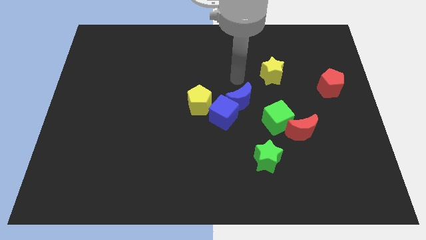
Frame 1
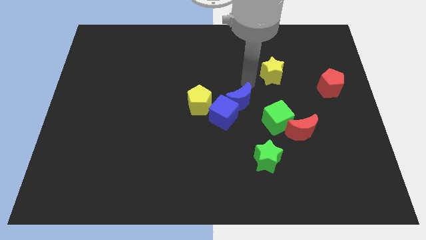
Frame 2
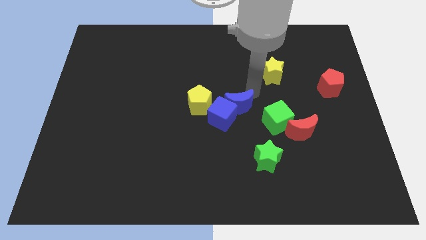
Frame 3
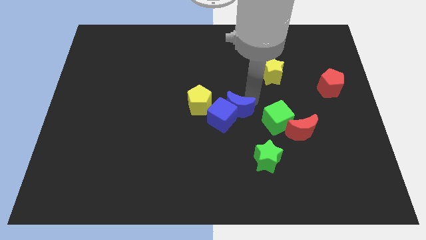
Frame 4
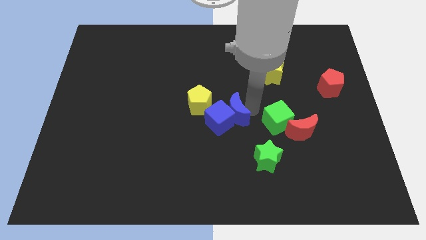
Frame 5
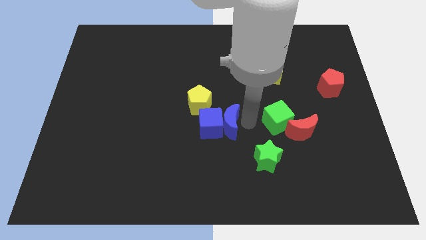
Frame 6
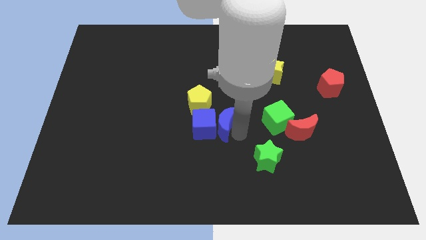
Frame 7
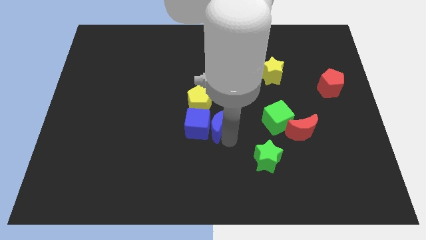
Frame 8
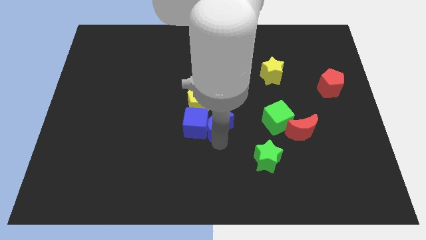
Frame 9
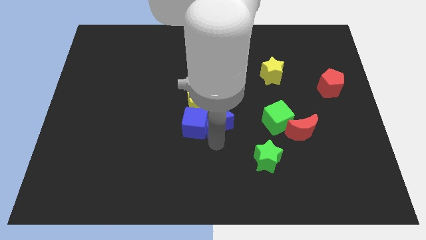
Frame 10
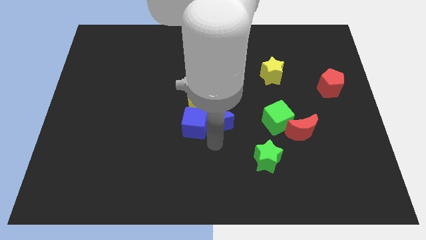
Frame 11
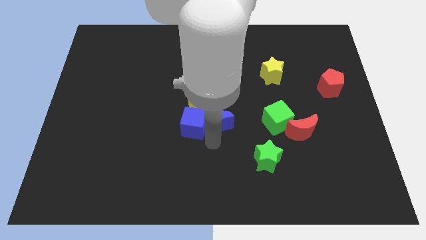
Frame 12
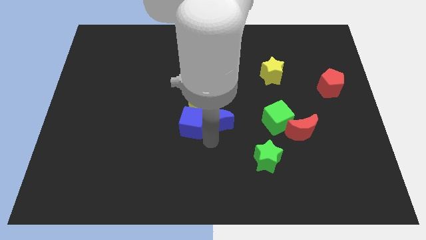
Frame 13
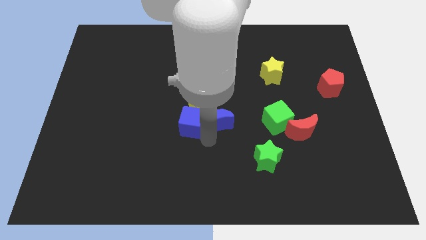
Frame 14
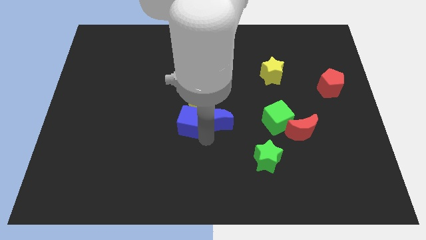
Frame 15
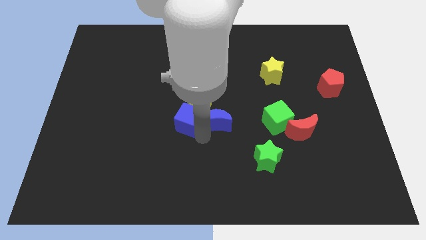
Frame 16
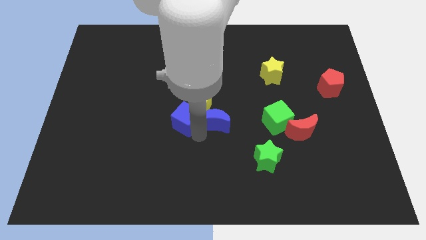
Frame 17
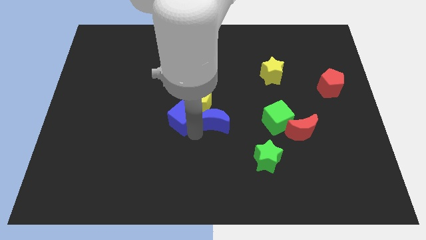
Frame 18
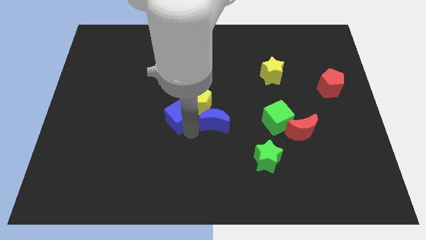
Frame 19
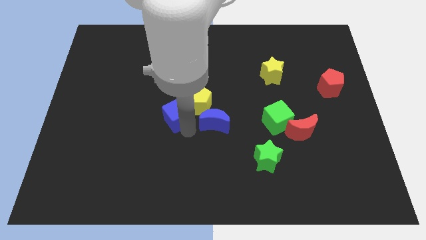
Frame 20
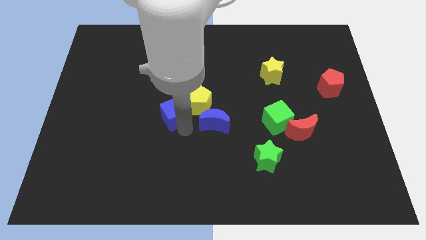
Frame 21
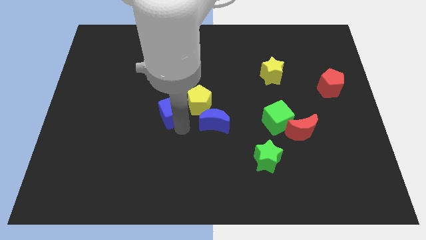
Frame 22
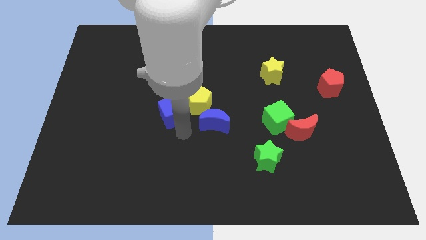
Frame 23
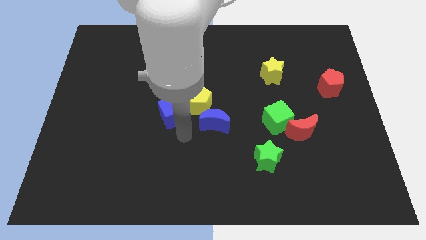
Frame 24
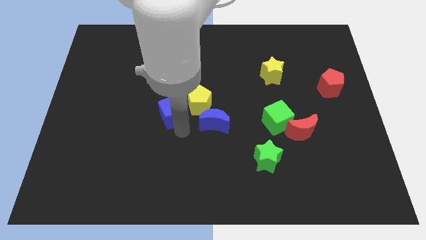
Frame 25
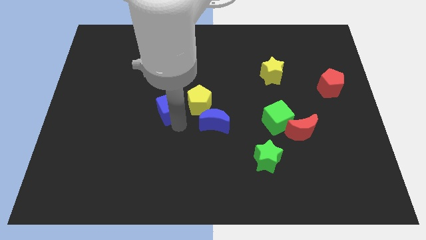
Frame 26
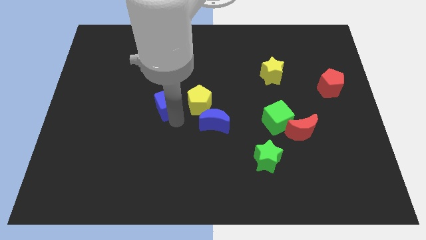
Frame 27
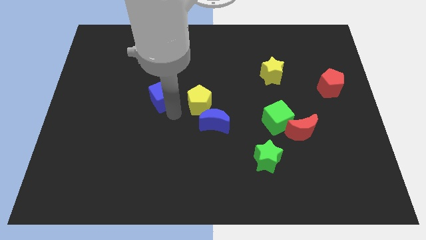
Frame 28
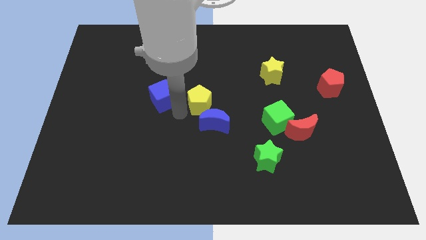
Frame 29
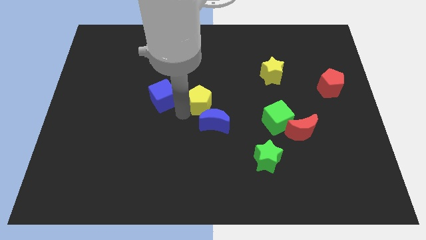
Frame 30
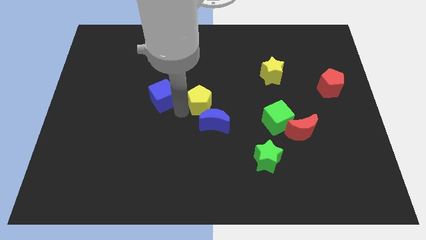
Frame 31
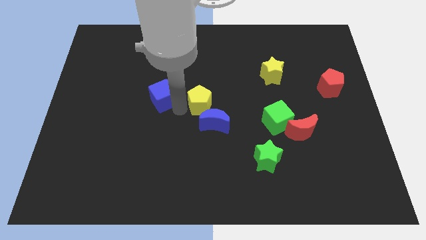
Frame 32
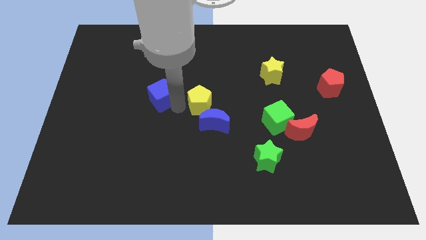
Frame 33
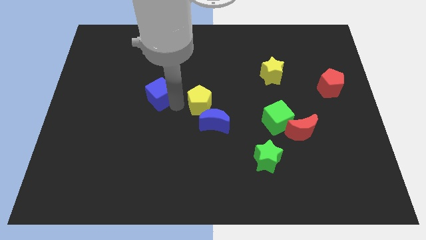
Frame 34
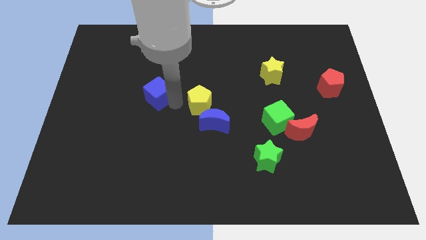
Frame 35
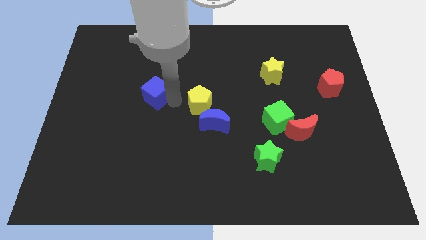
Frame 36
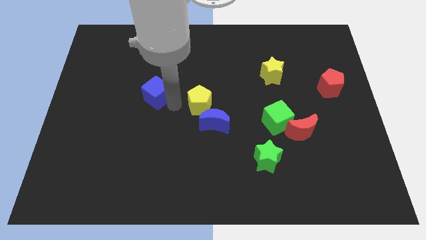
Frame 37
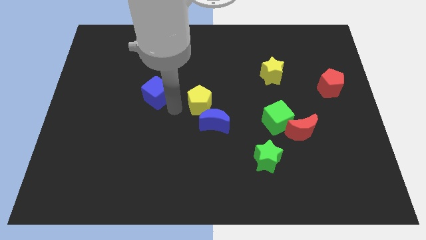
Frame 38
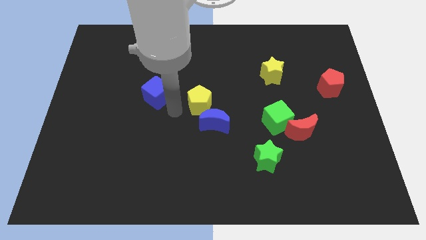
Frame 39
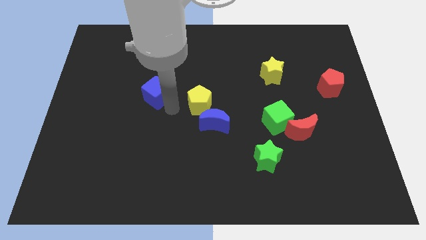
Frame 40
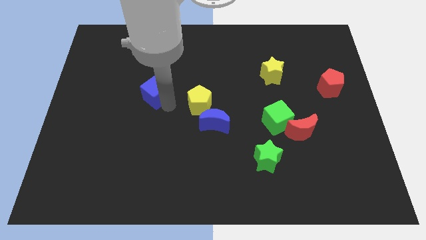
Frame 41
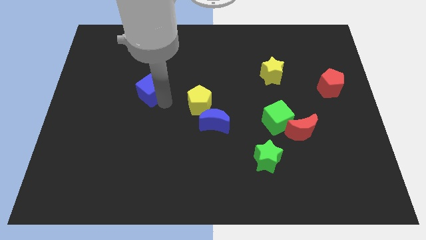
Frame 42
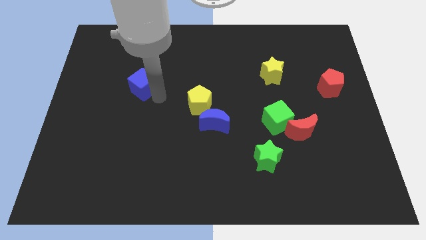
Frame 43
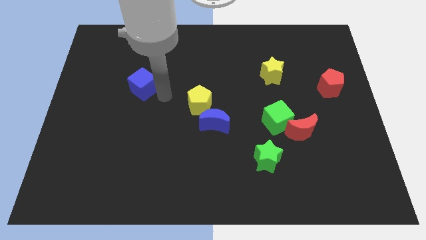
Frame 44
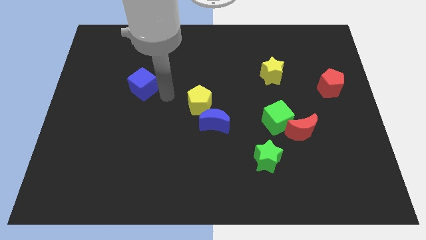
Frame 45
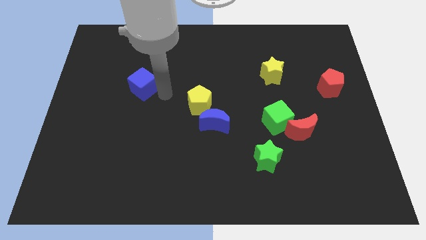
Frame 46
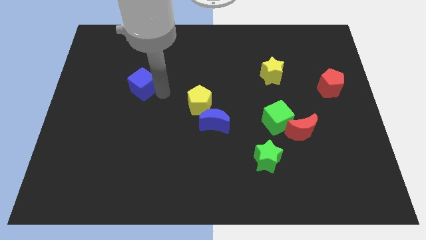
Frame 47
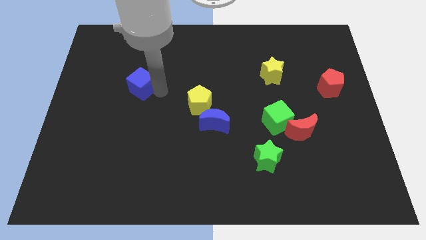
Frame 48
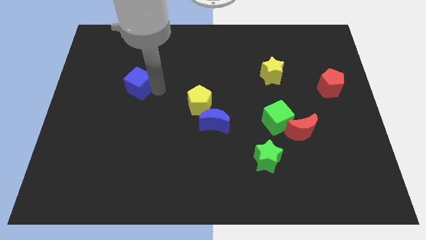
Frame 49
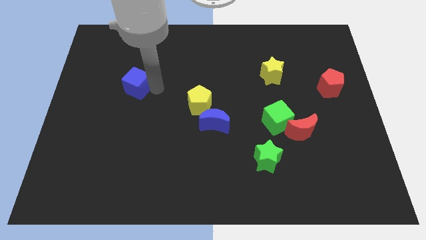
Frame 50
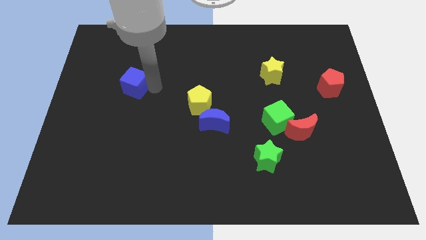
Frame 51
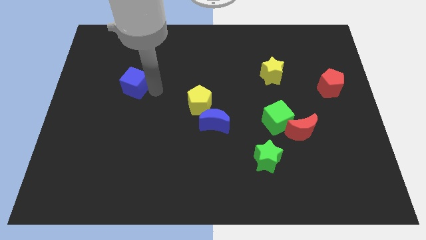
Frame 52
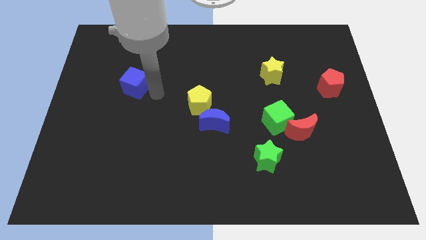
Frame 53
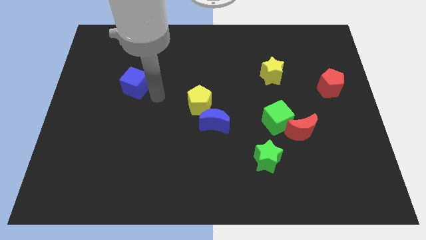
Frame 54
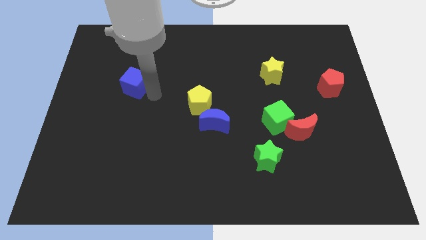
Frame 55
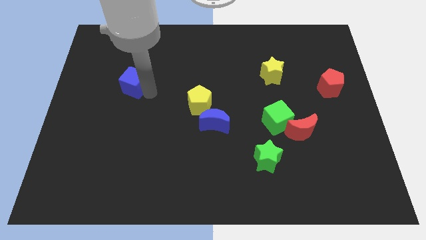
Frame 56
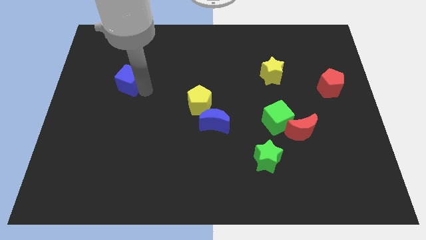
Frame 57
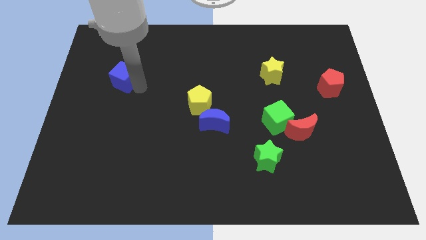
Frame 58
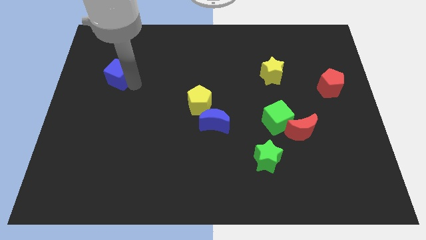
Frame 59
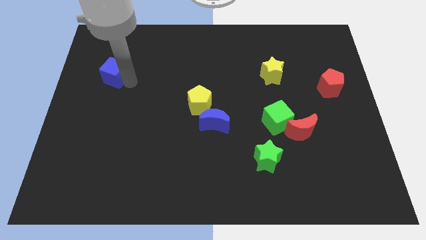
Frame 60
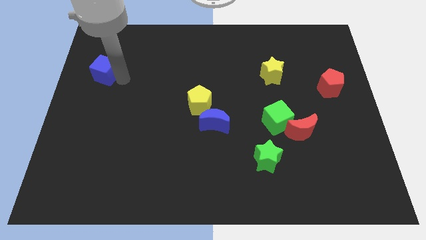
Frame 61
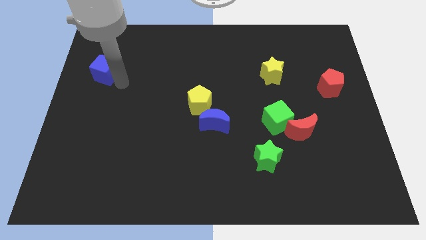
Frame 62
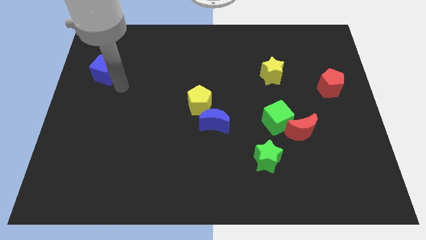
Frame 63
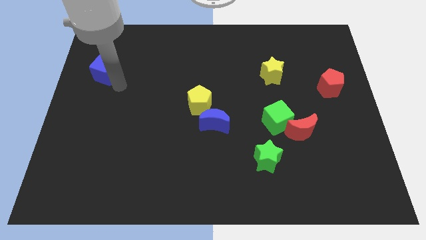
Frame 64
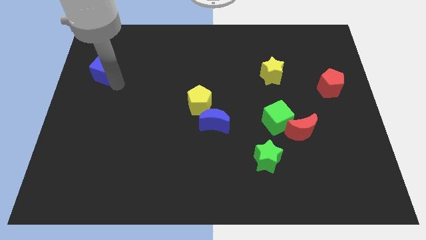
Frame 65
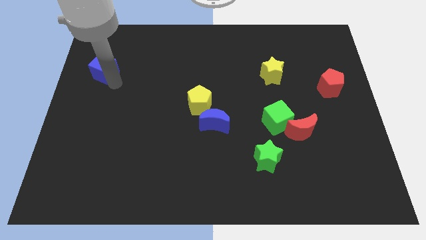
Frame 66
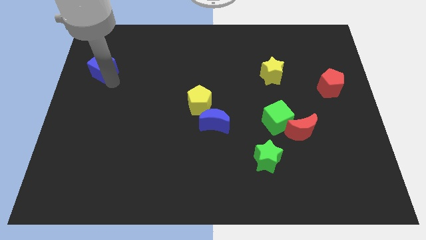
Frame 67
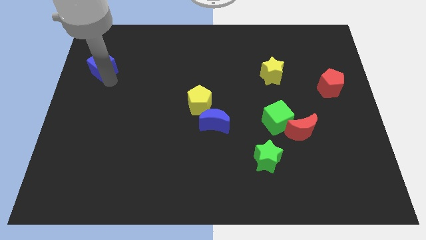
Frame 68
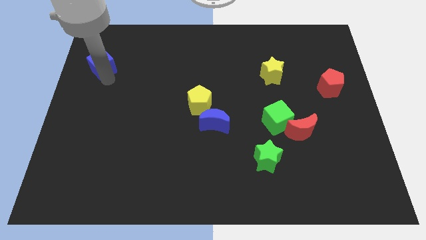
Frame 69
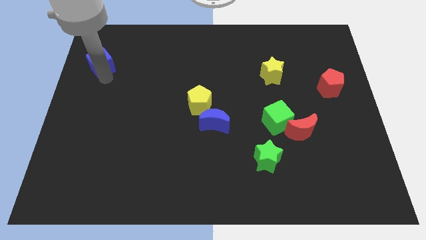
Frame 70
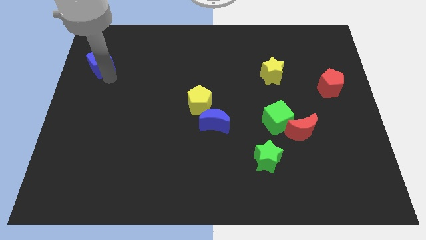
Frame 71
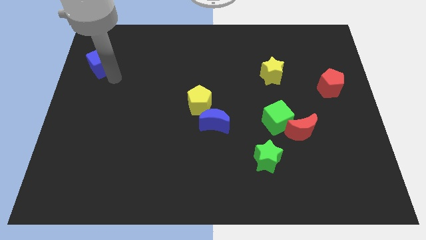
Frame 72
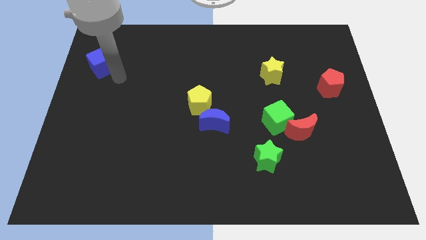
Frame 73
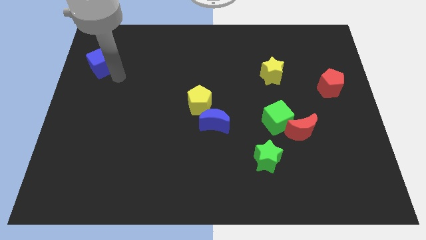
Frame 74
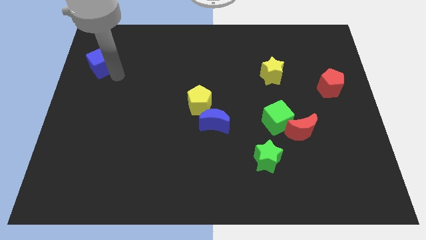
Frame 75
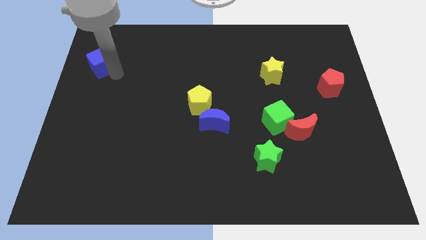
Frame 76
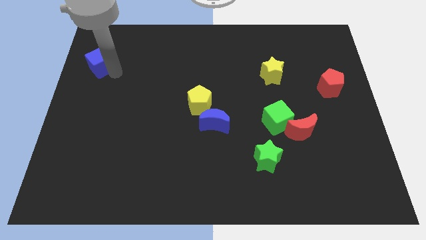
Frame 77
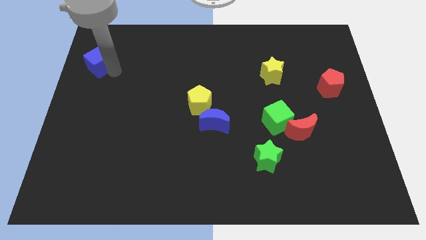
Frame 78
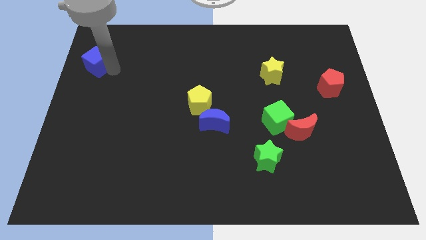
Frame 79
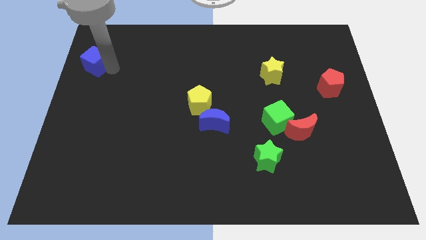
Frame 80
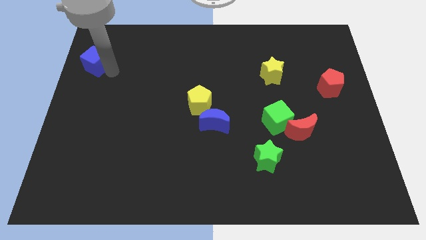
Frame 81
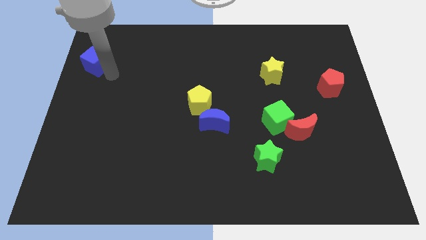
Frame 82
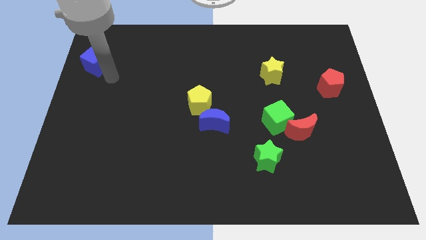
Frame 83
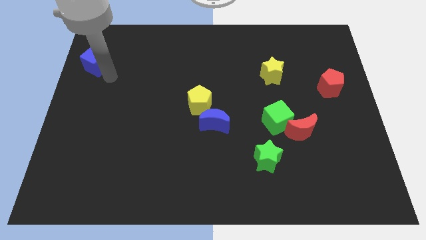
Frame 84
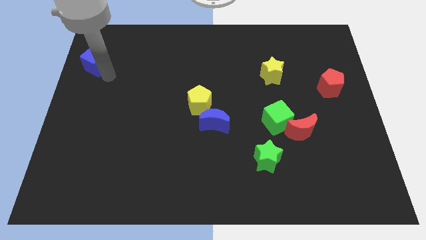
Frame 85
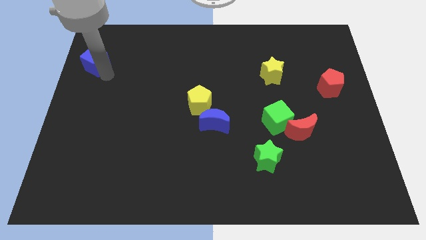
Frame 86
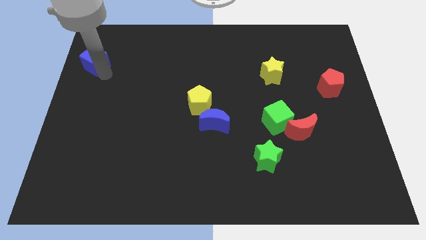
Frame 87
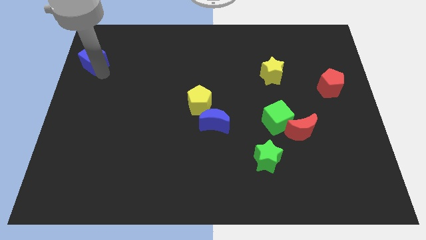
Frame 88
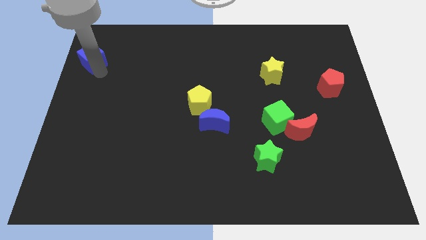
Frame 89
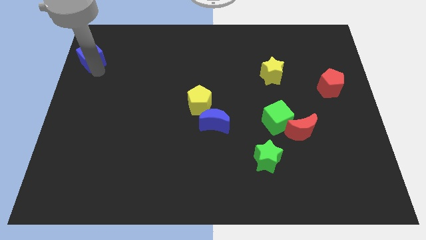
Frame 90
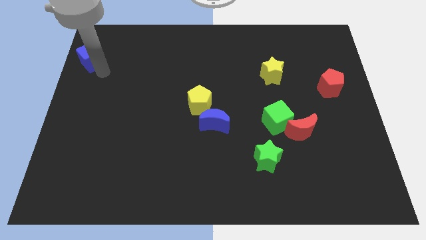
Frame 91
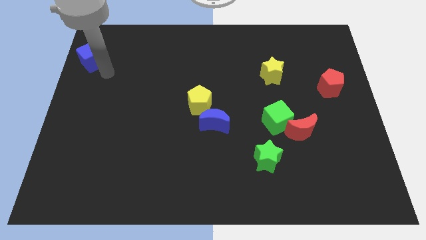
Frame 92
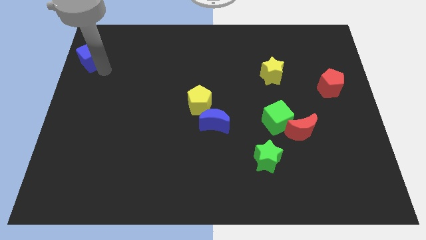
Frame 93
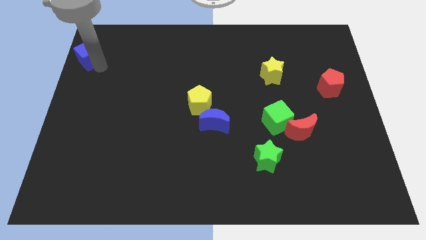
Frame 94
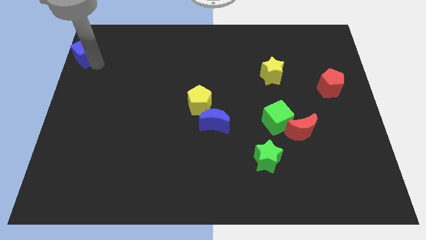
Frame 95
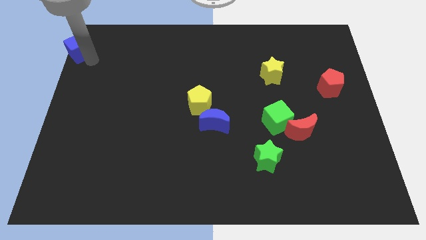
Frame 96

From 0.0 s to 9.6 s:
slide the blue cube to the upper left corner
